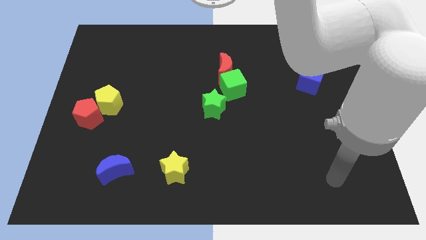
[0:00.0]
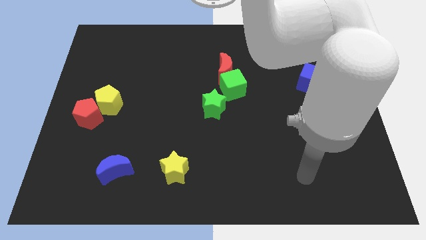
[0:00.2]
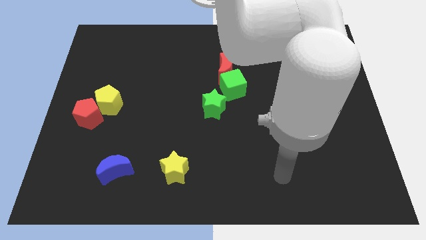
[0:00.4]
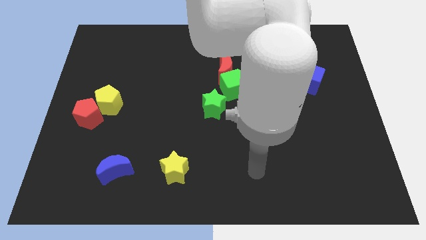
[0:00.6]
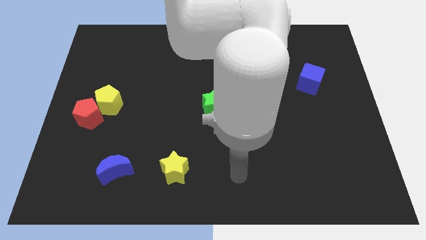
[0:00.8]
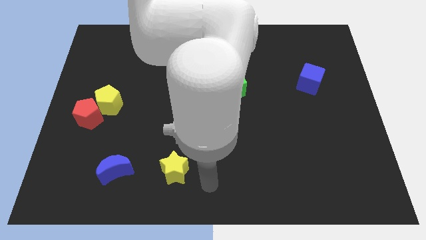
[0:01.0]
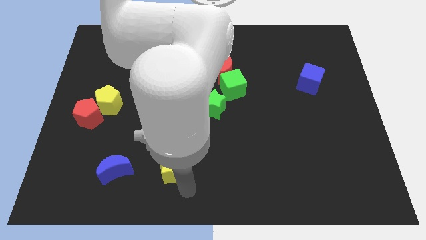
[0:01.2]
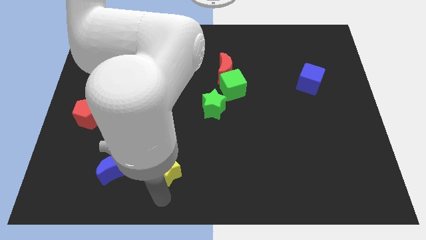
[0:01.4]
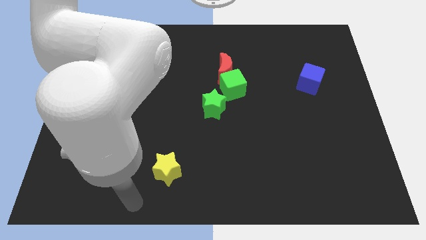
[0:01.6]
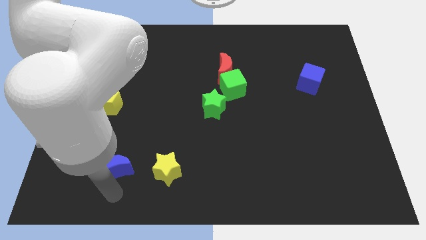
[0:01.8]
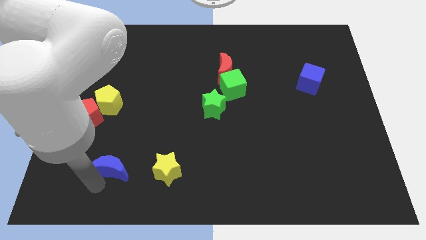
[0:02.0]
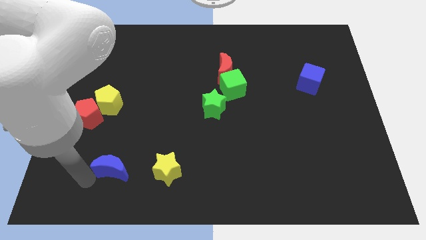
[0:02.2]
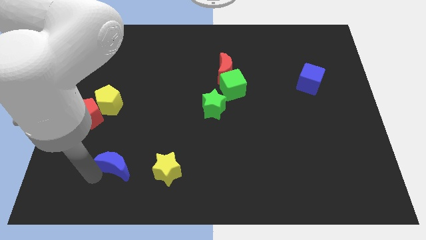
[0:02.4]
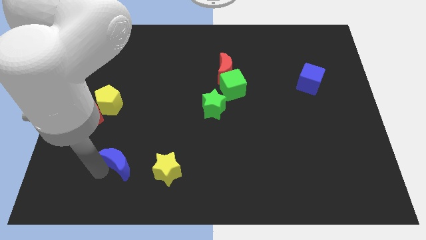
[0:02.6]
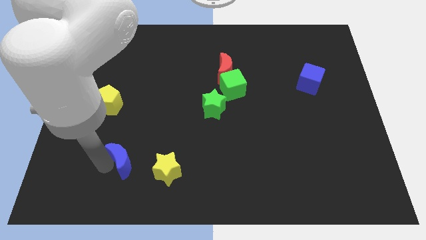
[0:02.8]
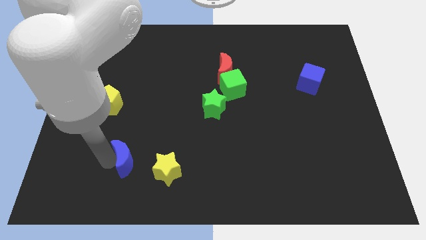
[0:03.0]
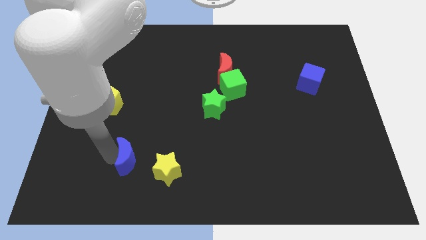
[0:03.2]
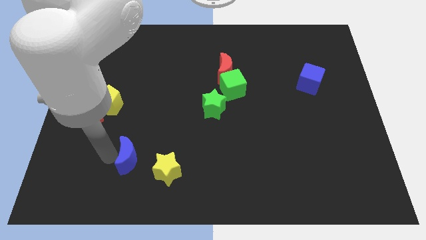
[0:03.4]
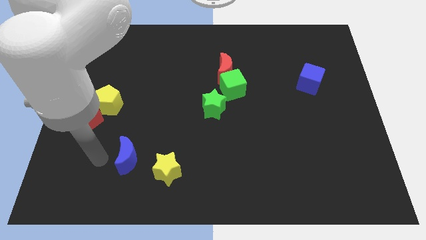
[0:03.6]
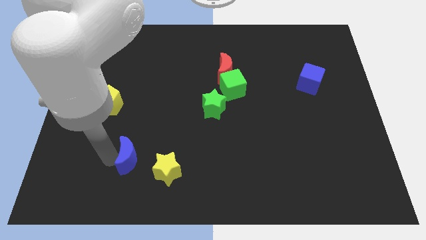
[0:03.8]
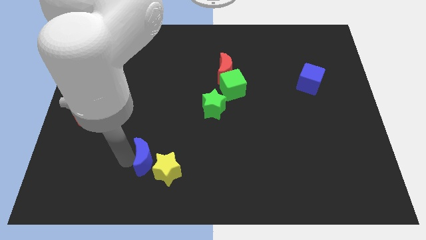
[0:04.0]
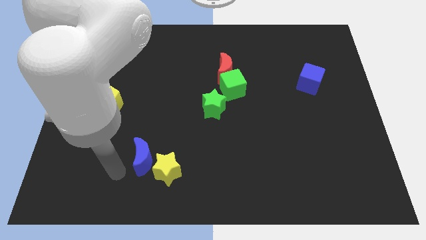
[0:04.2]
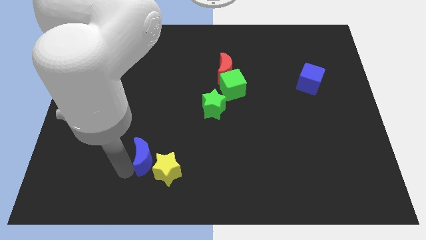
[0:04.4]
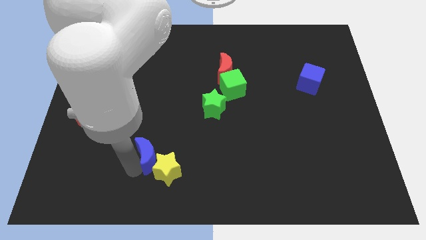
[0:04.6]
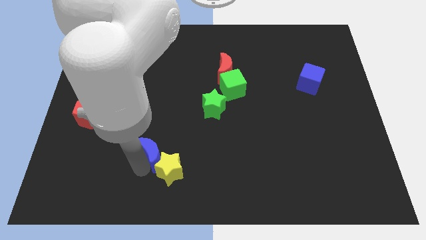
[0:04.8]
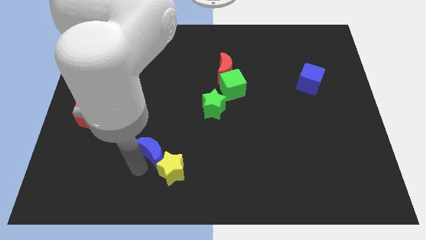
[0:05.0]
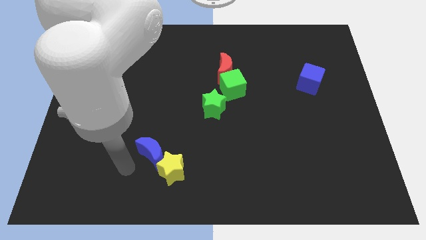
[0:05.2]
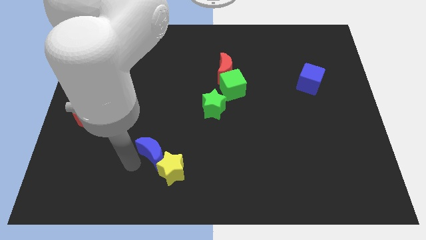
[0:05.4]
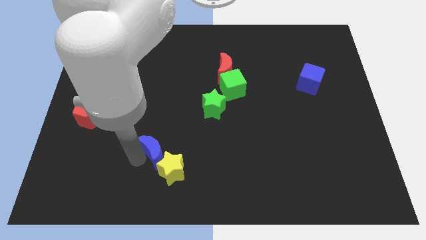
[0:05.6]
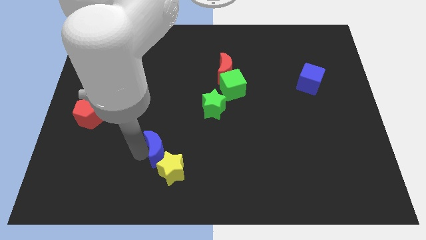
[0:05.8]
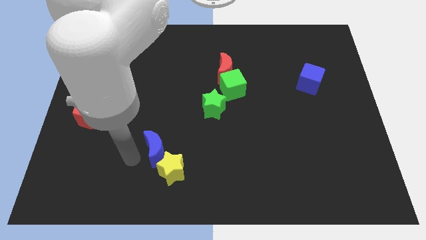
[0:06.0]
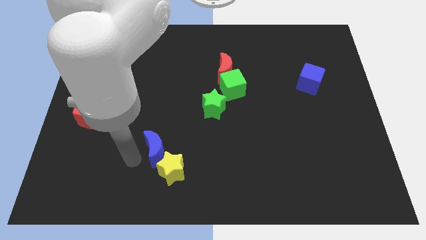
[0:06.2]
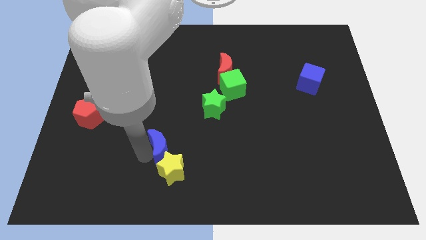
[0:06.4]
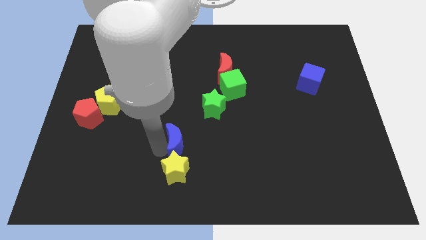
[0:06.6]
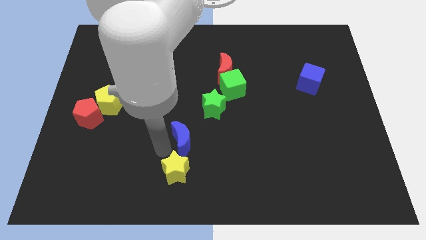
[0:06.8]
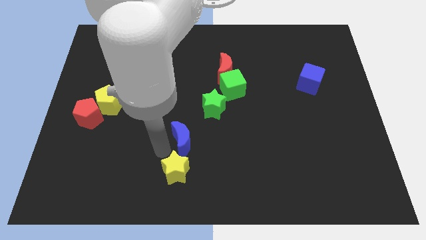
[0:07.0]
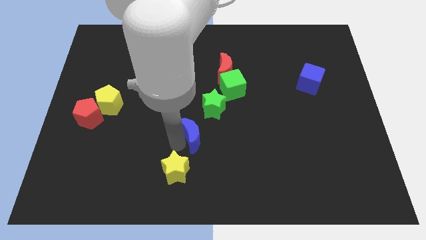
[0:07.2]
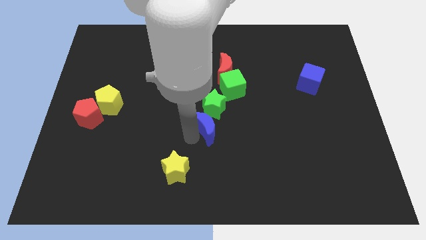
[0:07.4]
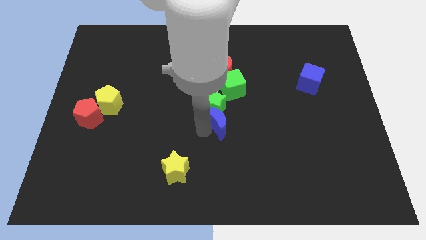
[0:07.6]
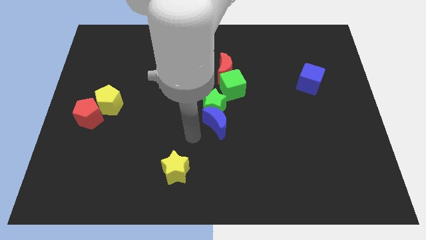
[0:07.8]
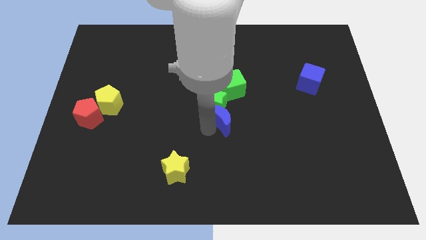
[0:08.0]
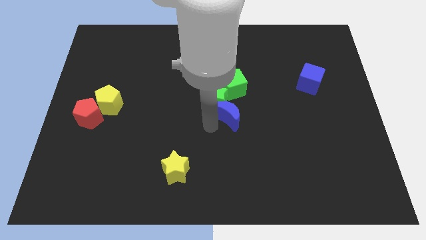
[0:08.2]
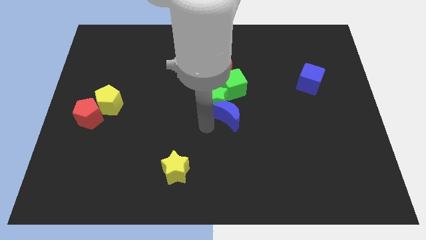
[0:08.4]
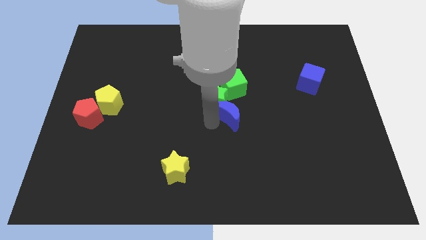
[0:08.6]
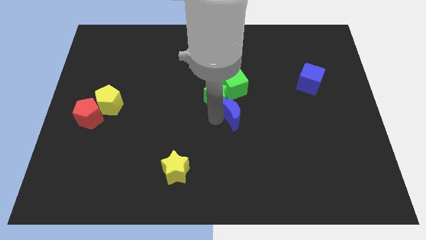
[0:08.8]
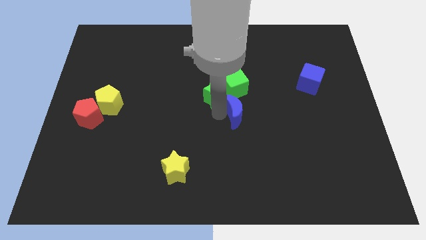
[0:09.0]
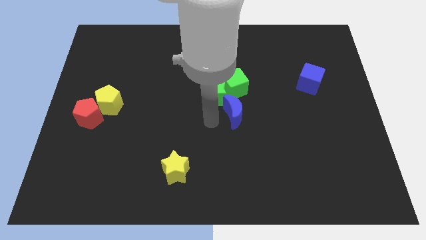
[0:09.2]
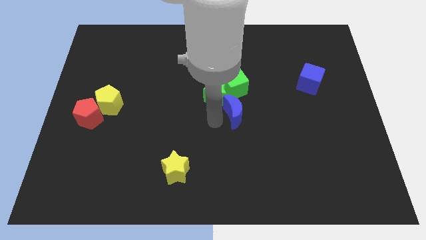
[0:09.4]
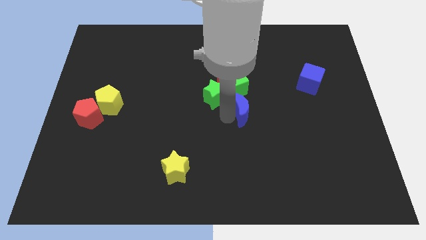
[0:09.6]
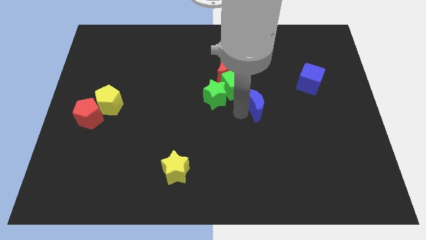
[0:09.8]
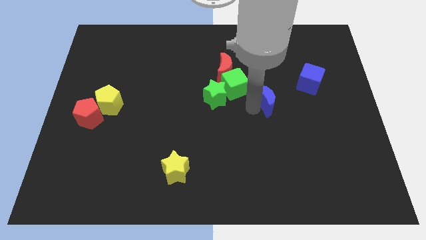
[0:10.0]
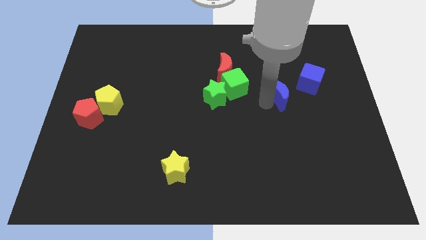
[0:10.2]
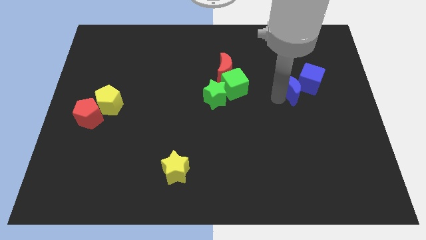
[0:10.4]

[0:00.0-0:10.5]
push the blue moon to the blue cube

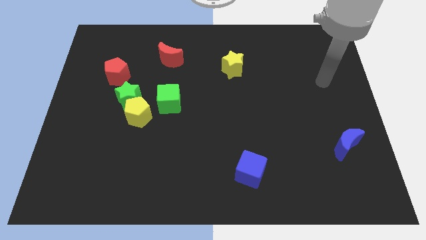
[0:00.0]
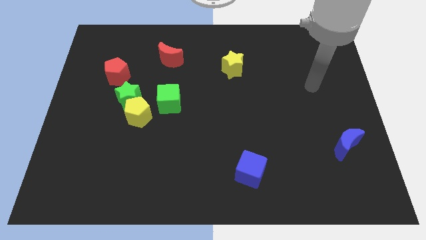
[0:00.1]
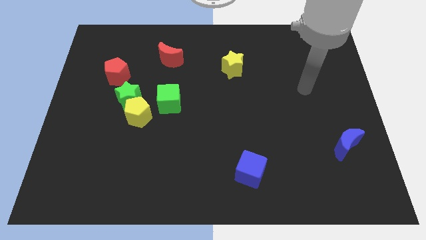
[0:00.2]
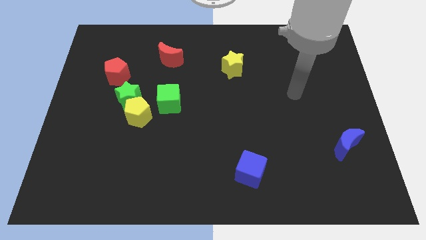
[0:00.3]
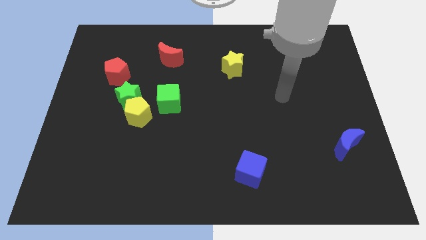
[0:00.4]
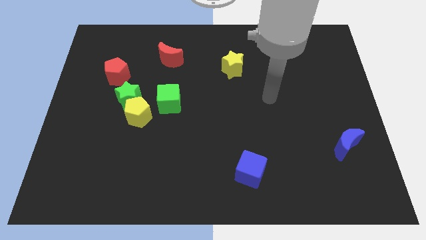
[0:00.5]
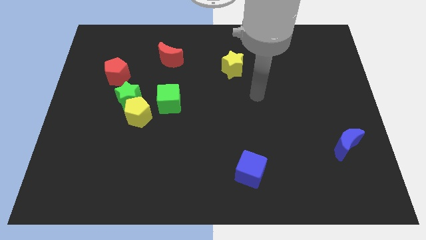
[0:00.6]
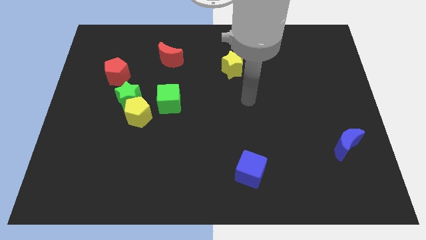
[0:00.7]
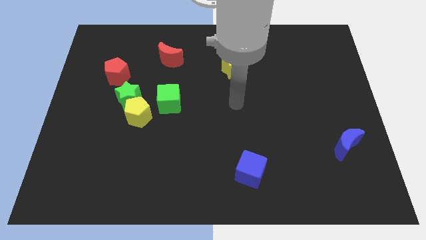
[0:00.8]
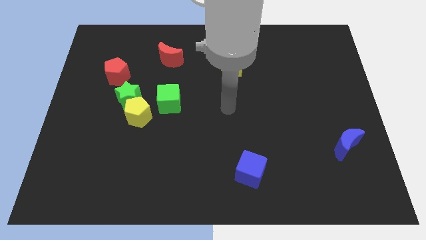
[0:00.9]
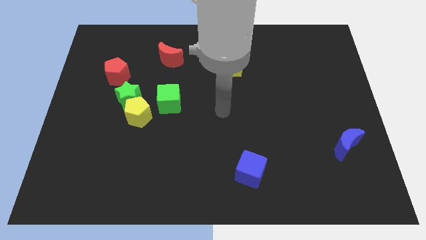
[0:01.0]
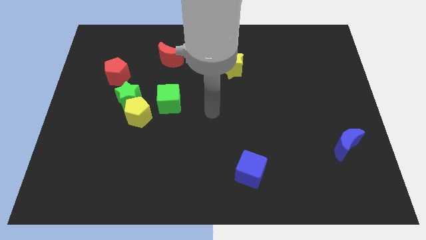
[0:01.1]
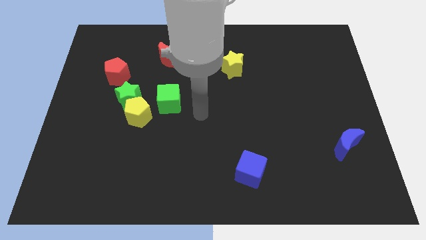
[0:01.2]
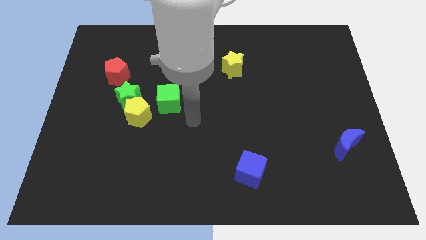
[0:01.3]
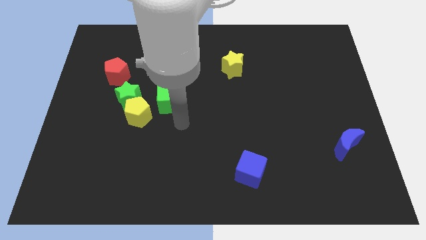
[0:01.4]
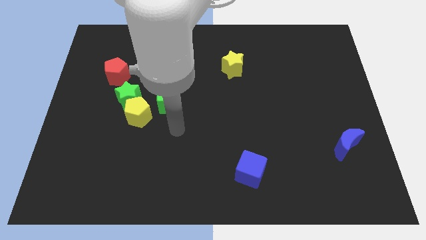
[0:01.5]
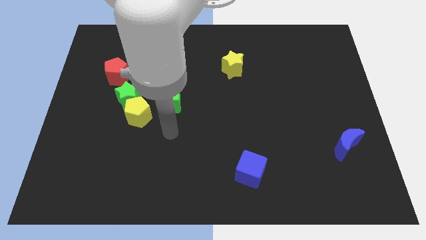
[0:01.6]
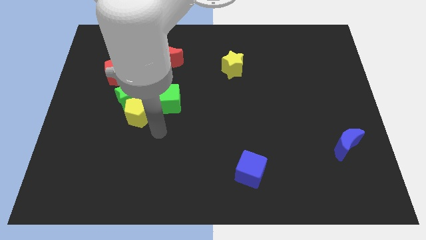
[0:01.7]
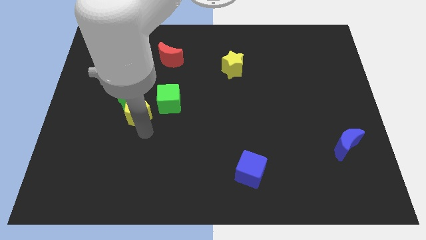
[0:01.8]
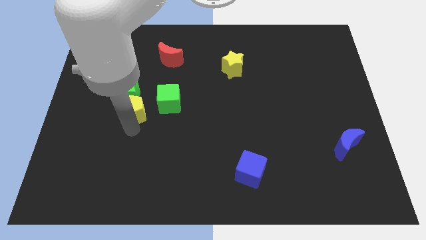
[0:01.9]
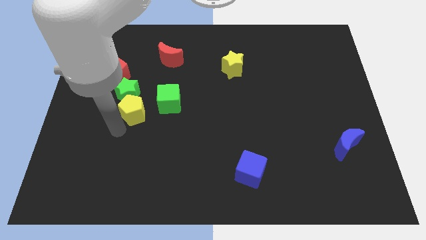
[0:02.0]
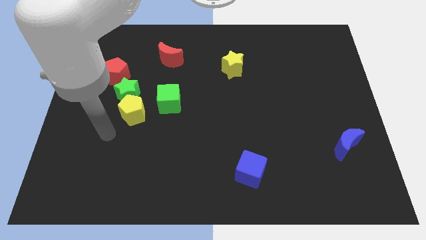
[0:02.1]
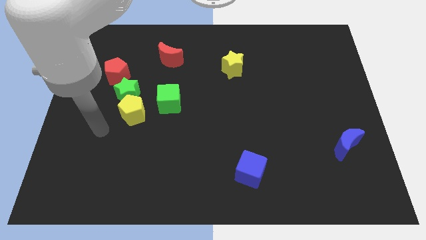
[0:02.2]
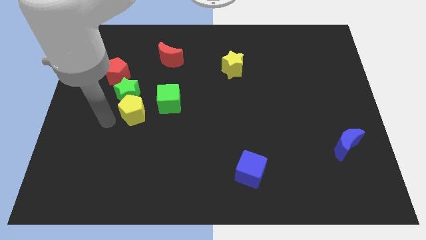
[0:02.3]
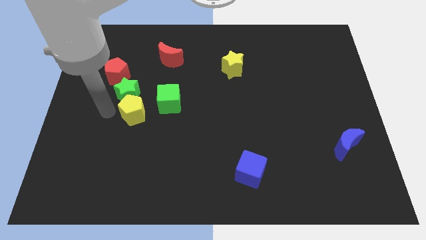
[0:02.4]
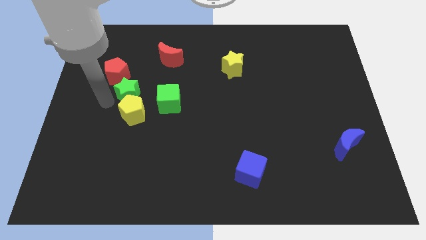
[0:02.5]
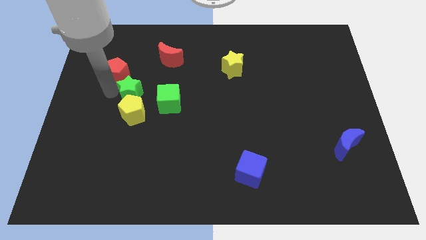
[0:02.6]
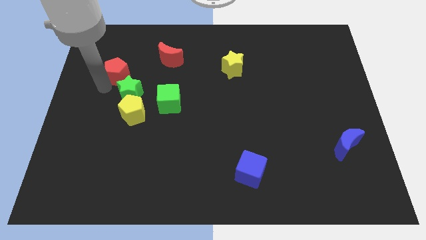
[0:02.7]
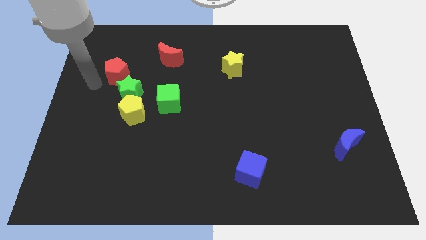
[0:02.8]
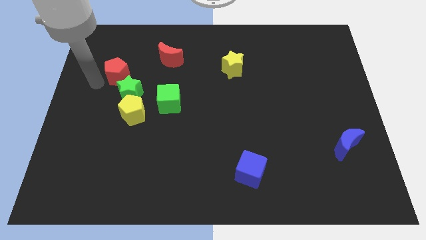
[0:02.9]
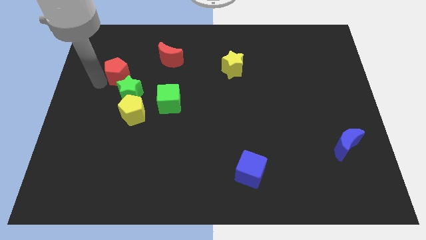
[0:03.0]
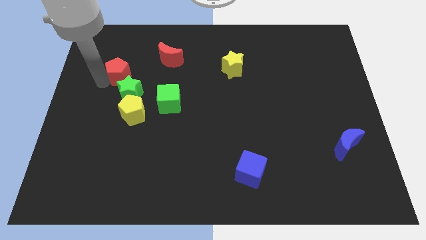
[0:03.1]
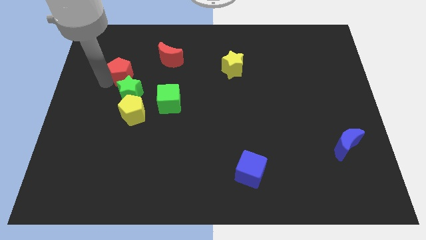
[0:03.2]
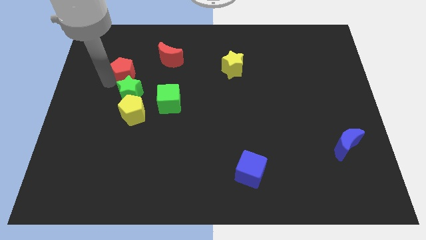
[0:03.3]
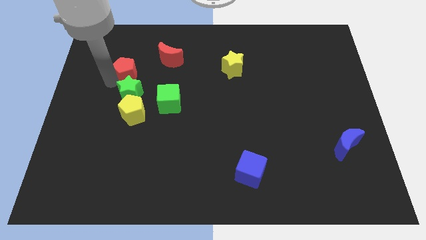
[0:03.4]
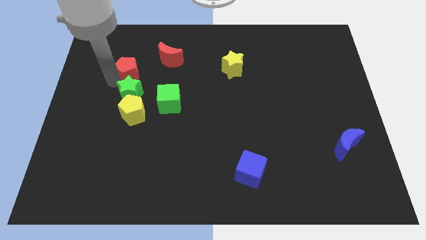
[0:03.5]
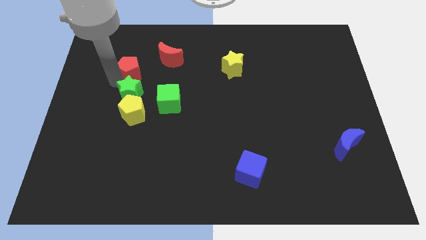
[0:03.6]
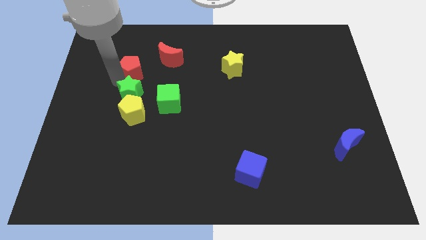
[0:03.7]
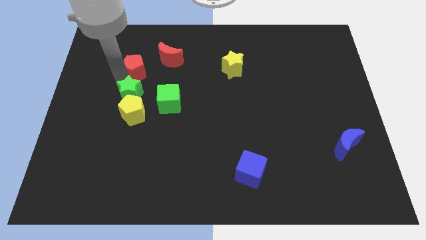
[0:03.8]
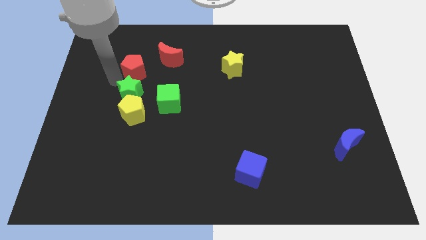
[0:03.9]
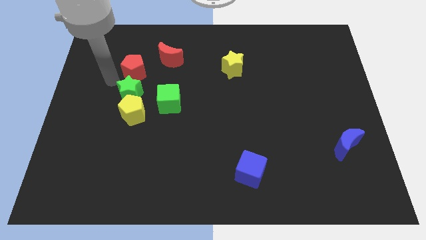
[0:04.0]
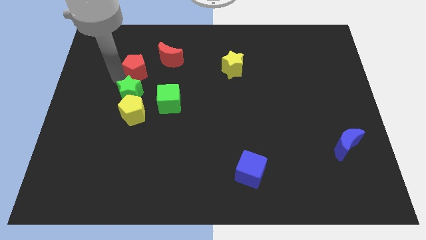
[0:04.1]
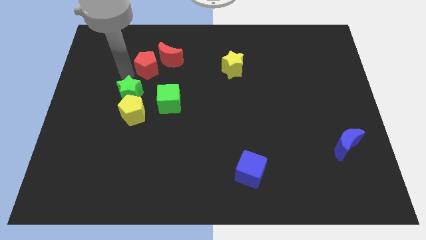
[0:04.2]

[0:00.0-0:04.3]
put the red pentagon towards the red moon
